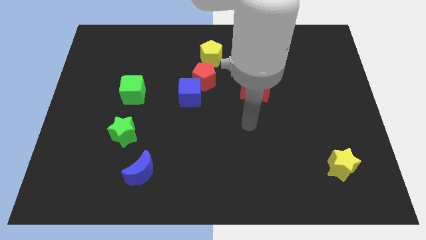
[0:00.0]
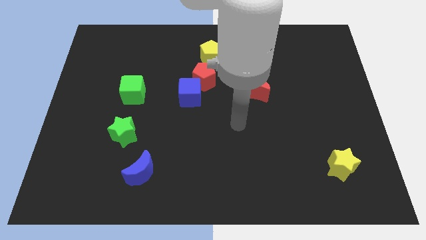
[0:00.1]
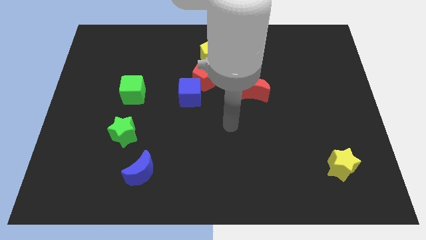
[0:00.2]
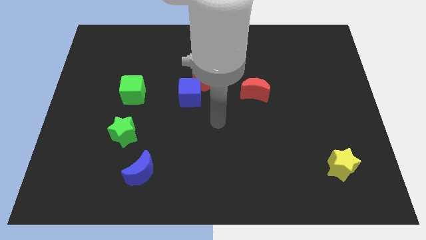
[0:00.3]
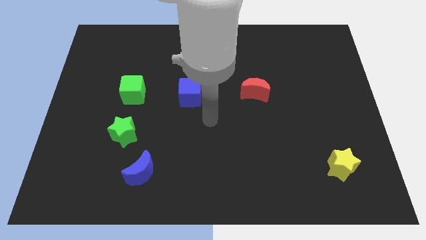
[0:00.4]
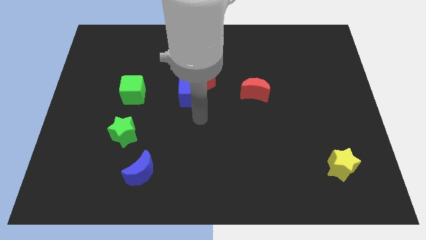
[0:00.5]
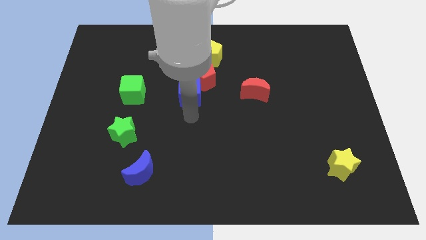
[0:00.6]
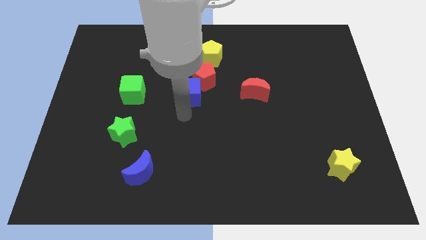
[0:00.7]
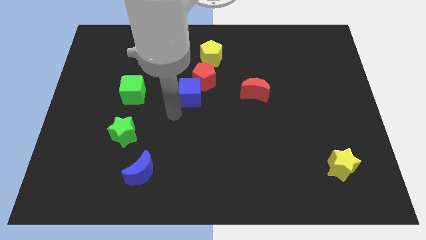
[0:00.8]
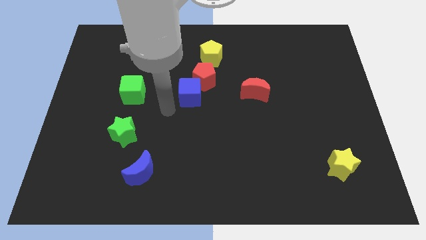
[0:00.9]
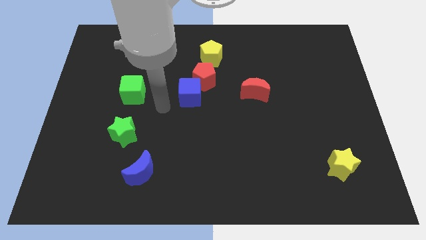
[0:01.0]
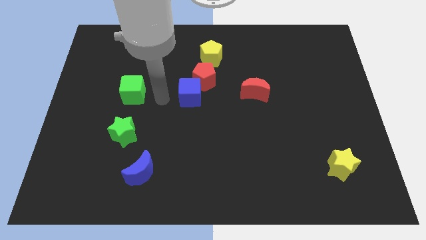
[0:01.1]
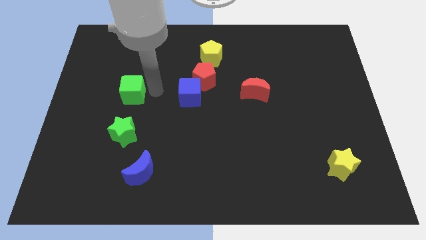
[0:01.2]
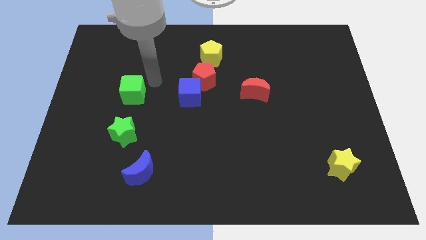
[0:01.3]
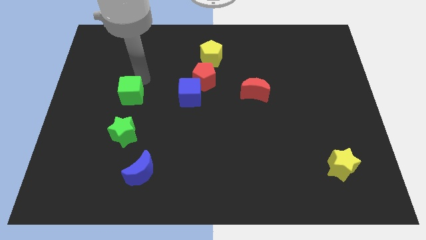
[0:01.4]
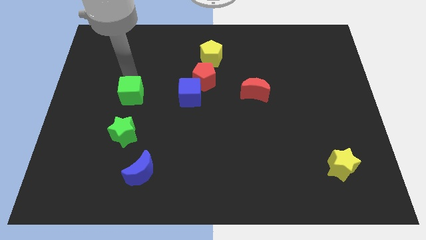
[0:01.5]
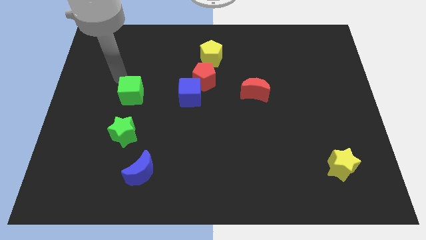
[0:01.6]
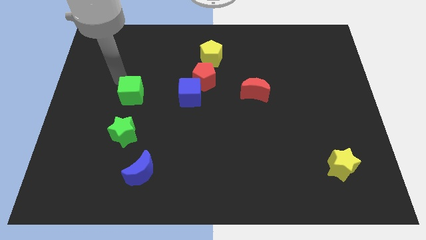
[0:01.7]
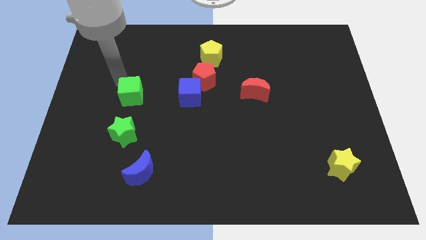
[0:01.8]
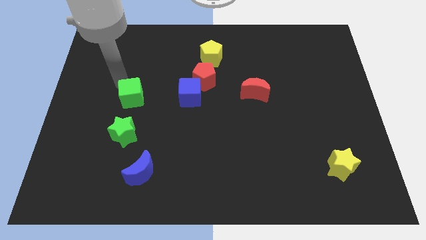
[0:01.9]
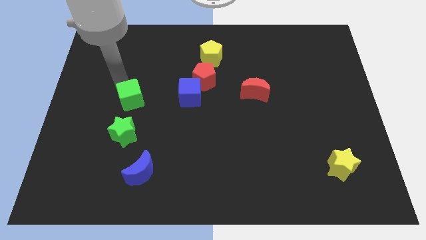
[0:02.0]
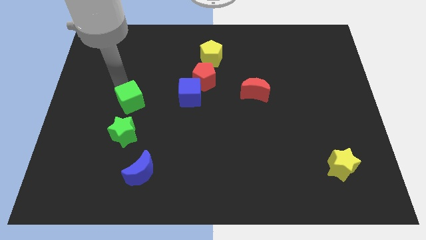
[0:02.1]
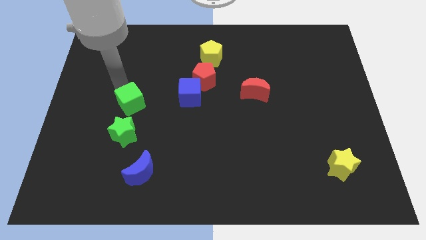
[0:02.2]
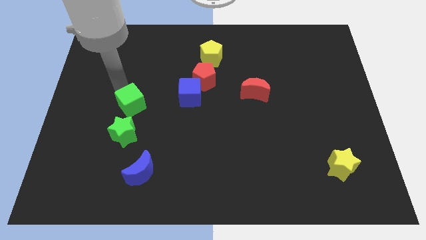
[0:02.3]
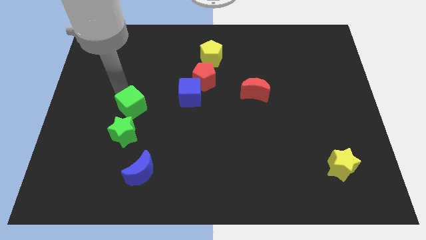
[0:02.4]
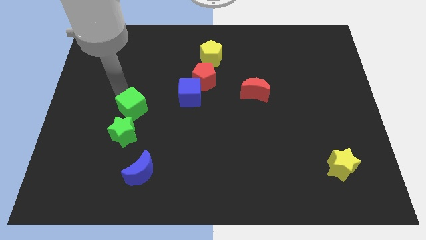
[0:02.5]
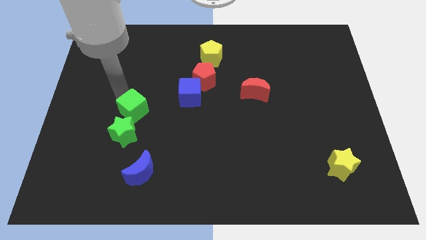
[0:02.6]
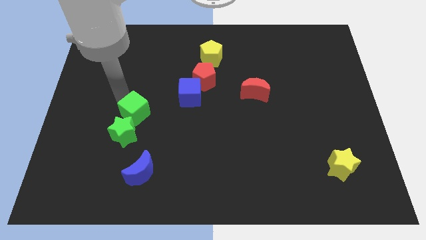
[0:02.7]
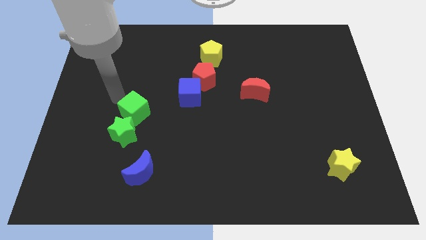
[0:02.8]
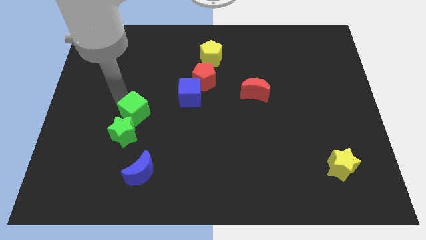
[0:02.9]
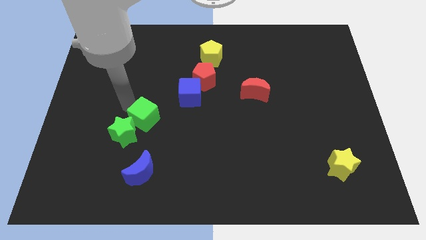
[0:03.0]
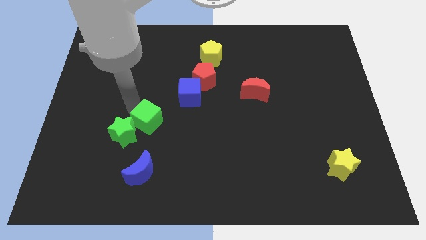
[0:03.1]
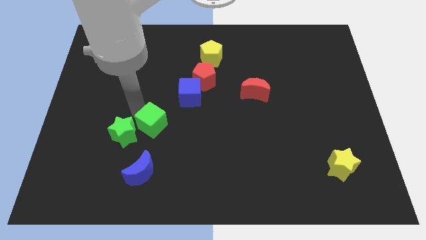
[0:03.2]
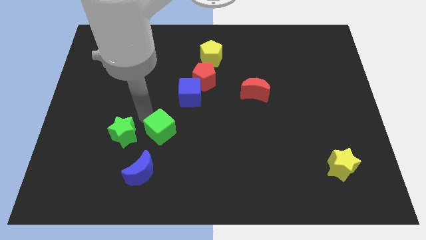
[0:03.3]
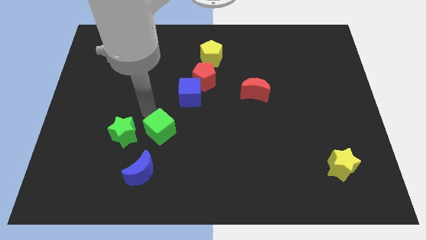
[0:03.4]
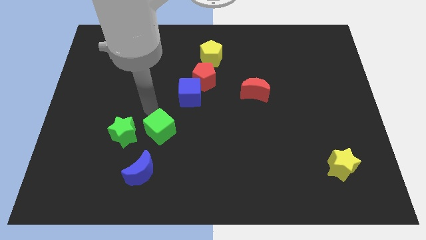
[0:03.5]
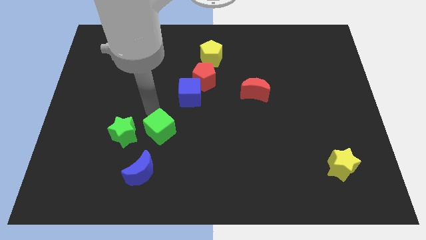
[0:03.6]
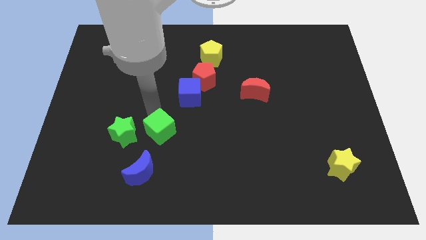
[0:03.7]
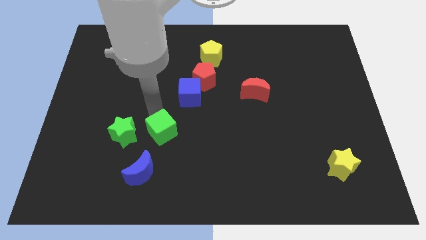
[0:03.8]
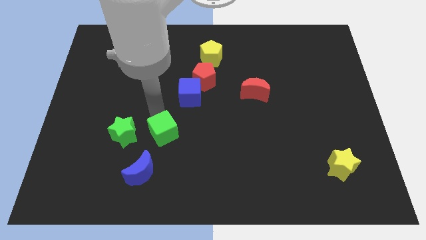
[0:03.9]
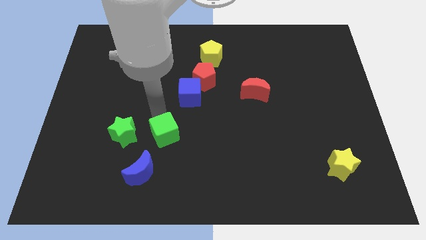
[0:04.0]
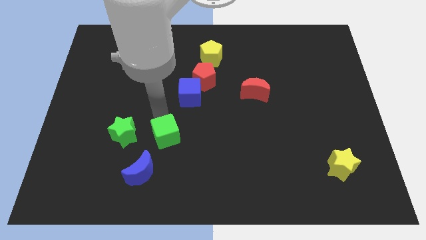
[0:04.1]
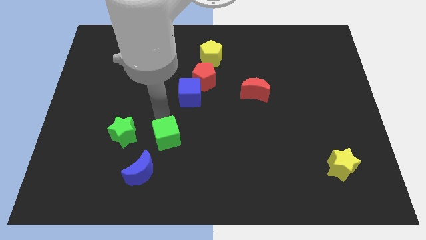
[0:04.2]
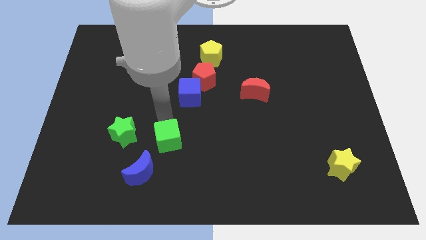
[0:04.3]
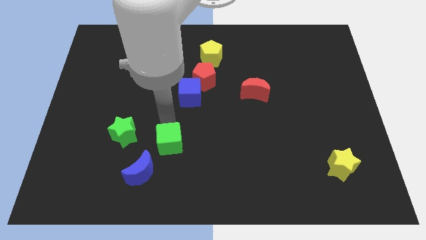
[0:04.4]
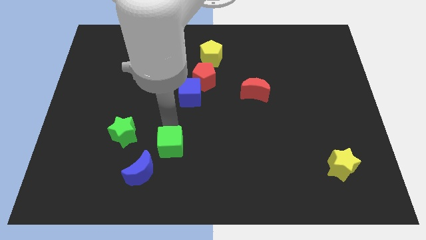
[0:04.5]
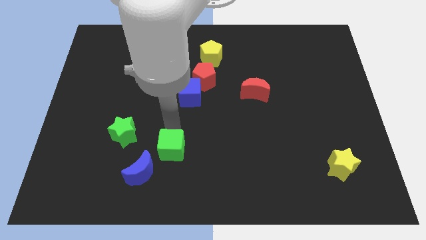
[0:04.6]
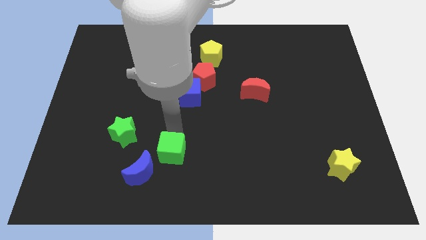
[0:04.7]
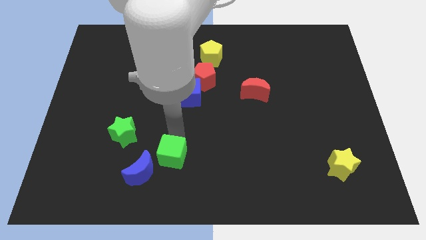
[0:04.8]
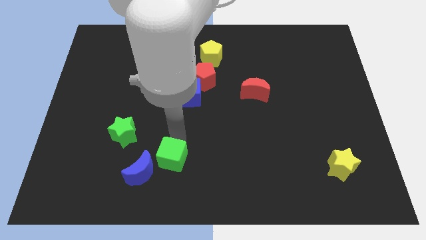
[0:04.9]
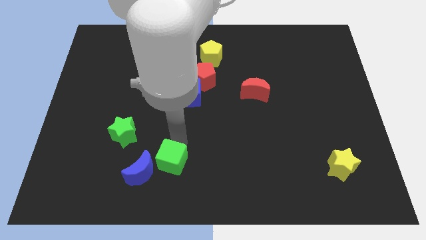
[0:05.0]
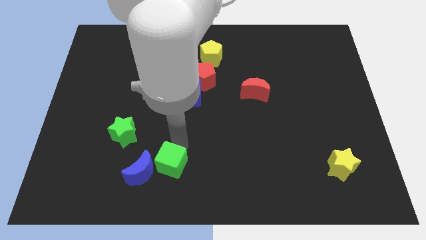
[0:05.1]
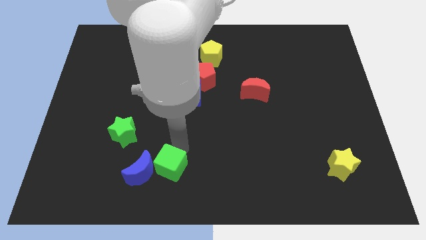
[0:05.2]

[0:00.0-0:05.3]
move the green cube towards the blue moon

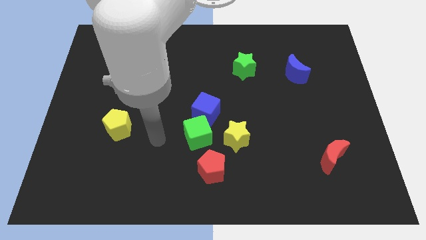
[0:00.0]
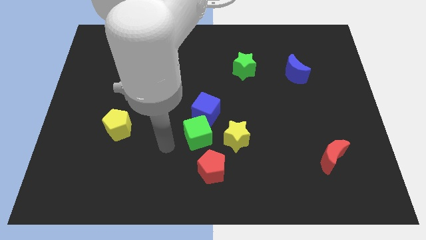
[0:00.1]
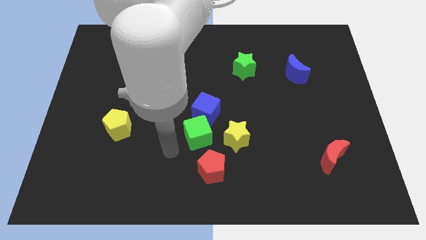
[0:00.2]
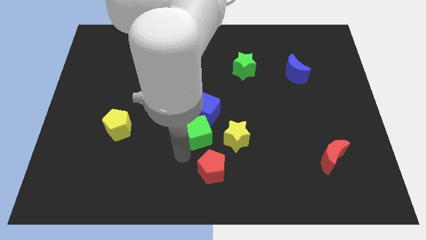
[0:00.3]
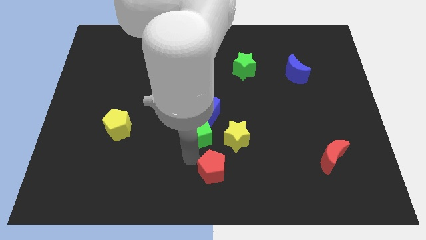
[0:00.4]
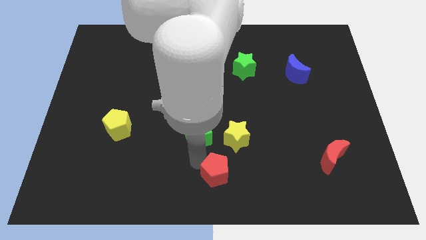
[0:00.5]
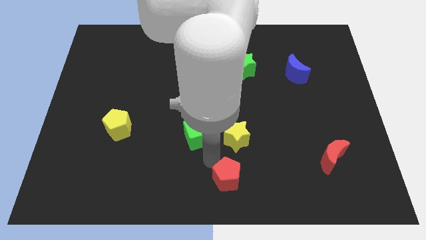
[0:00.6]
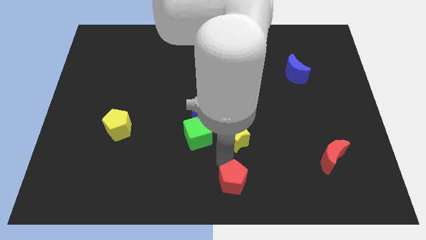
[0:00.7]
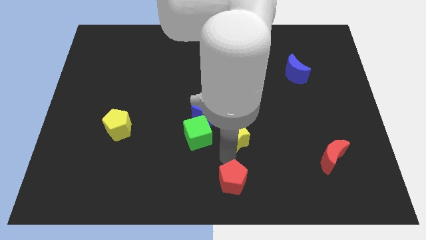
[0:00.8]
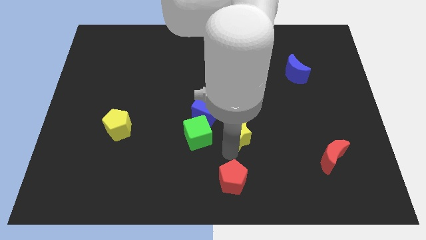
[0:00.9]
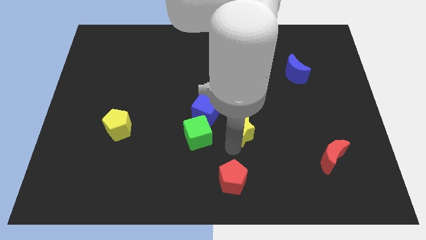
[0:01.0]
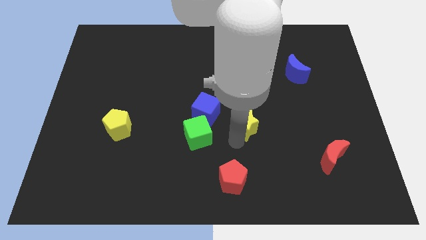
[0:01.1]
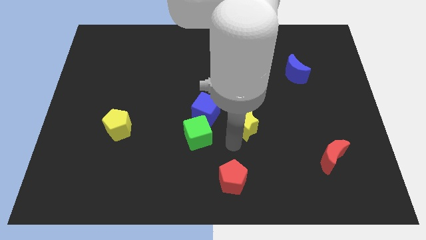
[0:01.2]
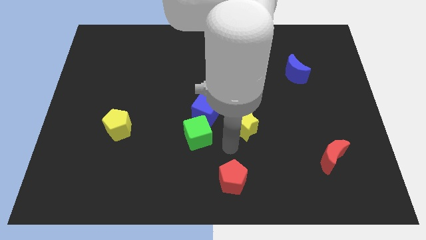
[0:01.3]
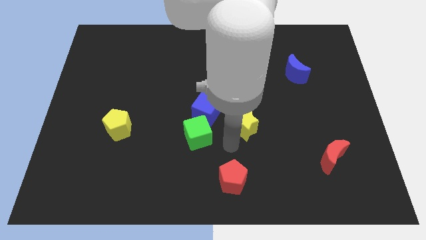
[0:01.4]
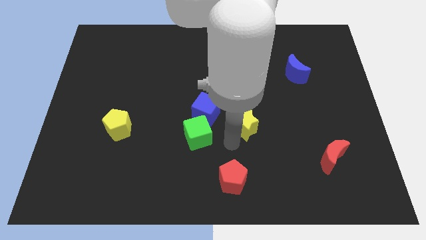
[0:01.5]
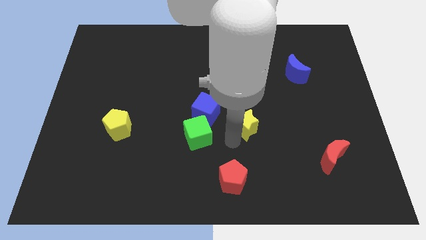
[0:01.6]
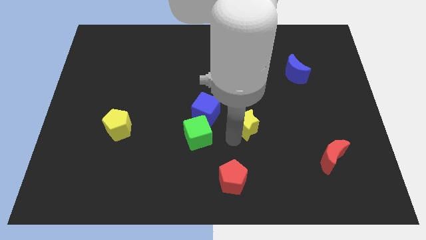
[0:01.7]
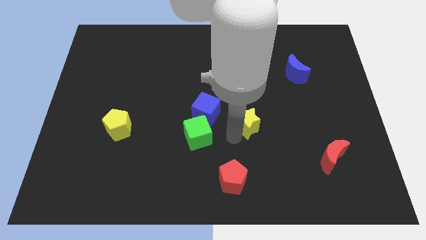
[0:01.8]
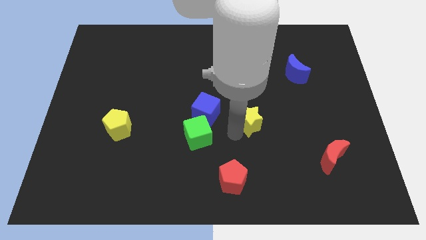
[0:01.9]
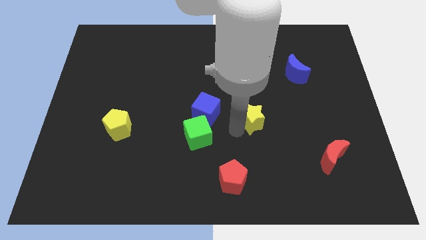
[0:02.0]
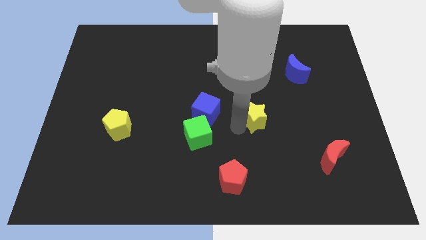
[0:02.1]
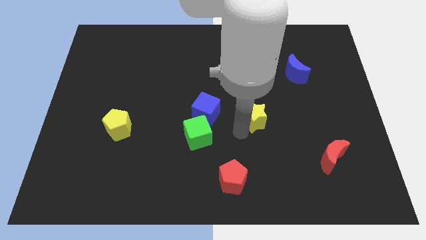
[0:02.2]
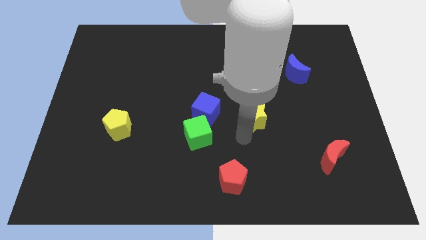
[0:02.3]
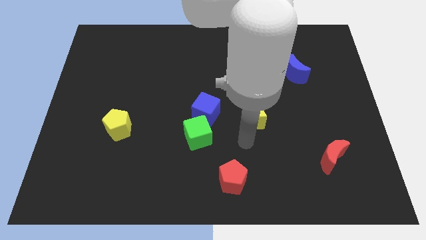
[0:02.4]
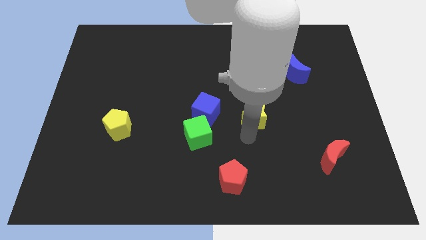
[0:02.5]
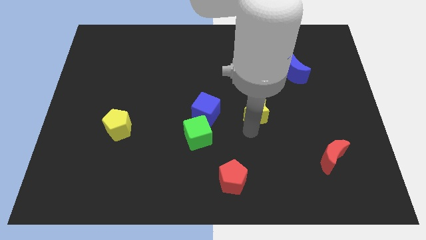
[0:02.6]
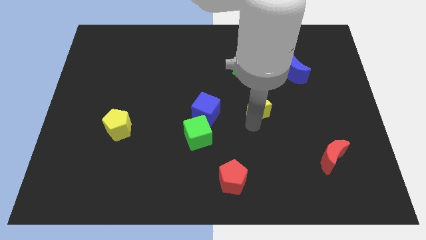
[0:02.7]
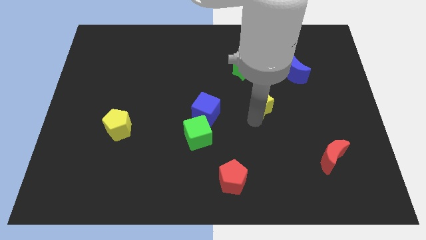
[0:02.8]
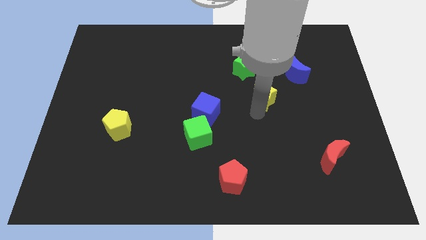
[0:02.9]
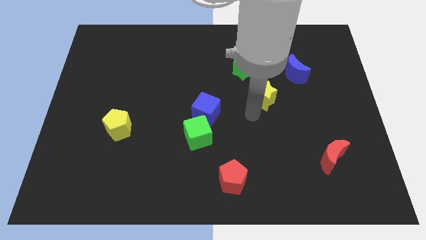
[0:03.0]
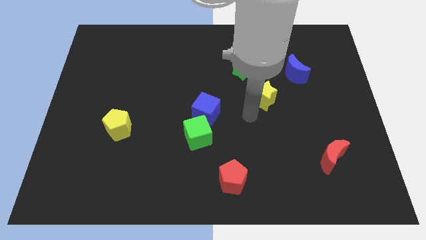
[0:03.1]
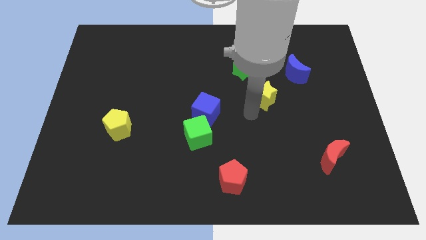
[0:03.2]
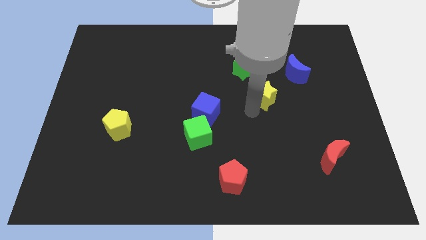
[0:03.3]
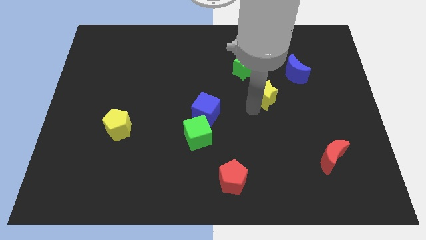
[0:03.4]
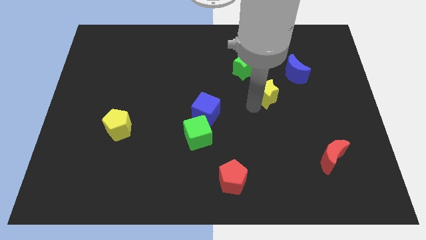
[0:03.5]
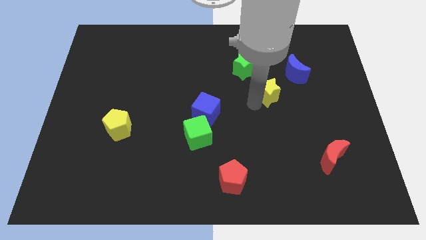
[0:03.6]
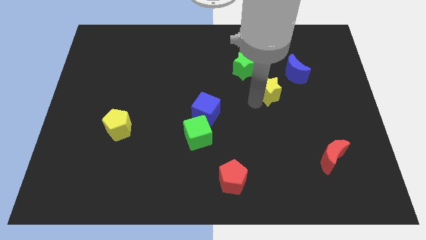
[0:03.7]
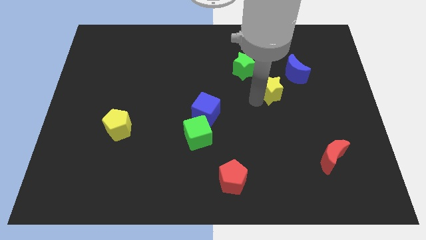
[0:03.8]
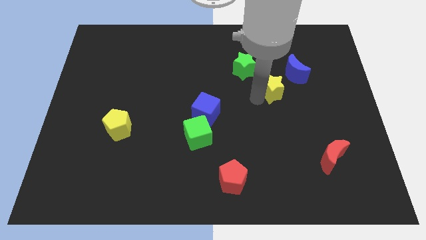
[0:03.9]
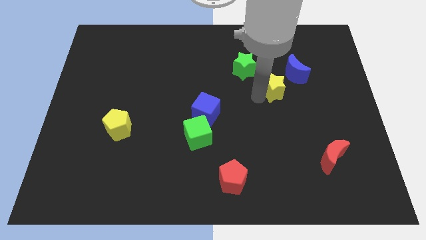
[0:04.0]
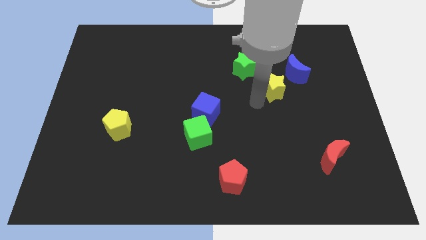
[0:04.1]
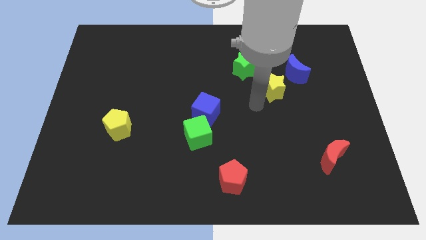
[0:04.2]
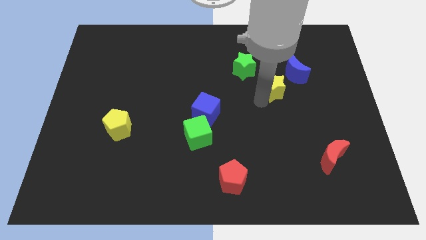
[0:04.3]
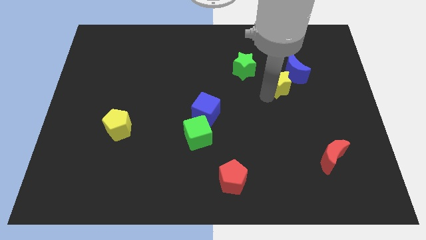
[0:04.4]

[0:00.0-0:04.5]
put the yellow star towards the blue moon
